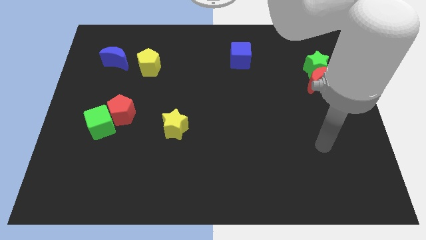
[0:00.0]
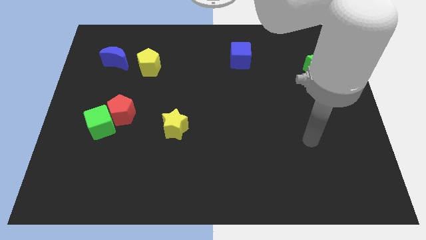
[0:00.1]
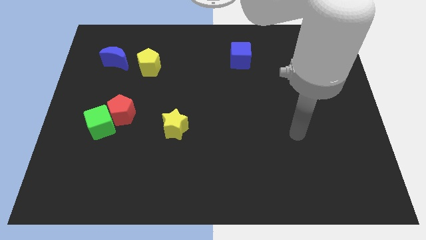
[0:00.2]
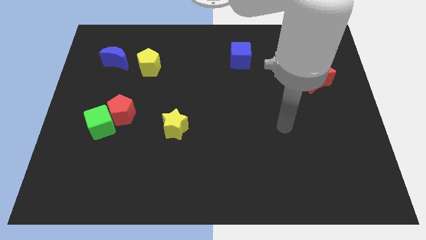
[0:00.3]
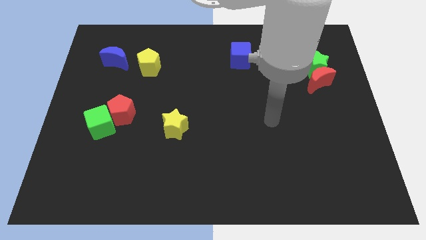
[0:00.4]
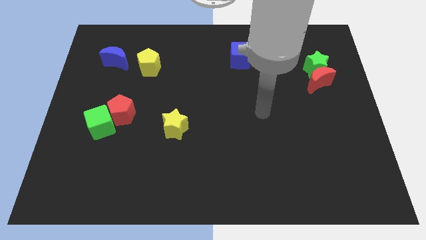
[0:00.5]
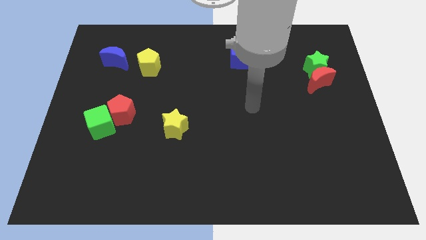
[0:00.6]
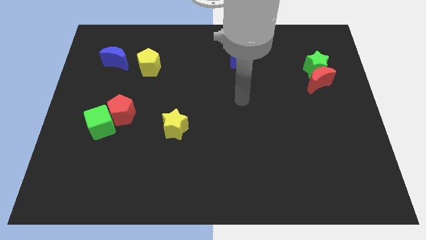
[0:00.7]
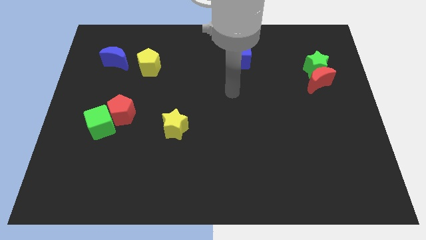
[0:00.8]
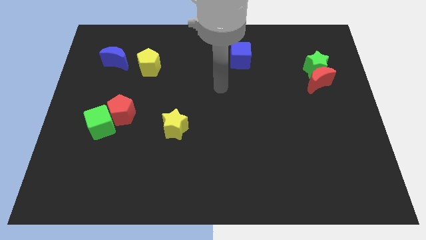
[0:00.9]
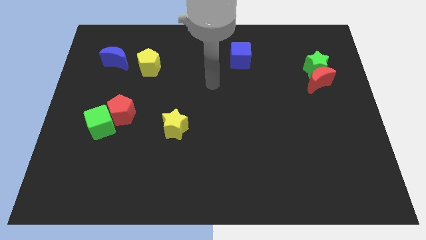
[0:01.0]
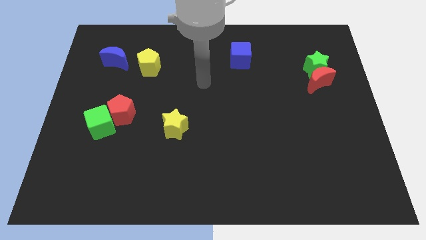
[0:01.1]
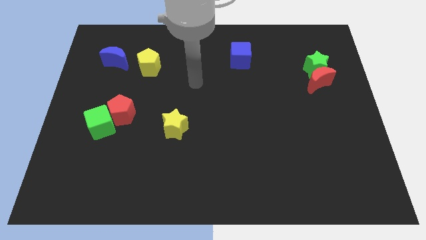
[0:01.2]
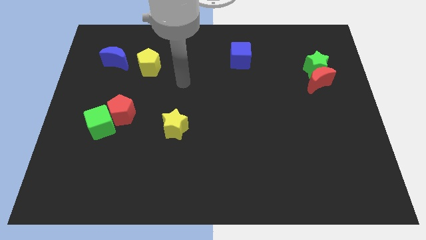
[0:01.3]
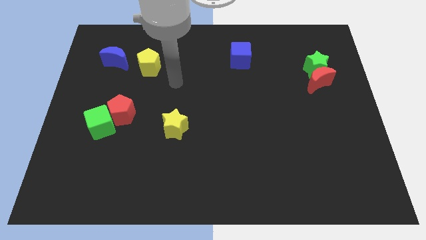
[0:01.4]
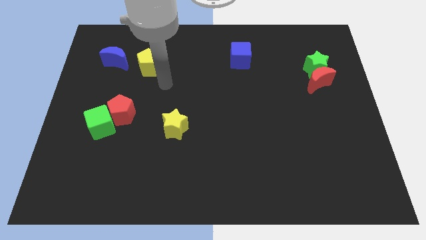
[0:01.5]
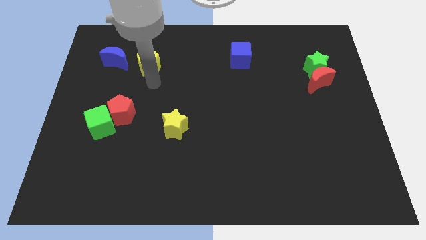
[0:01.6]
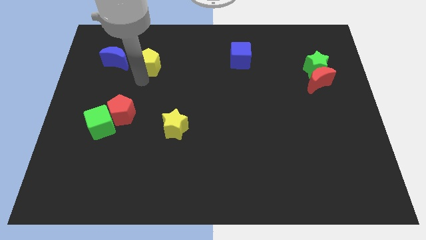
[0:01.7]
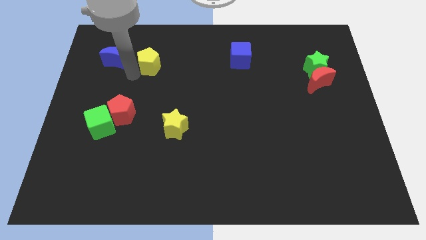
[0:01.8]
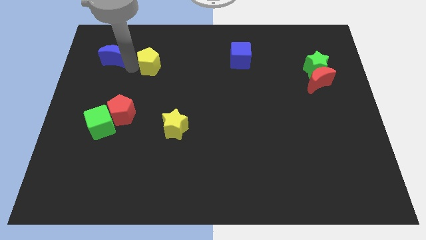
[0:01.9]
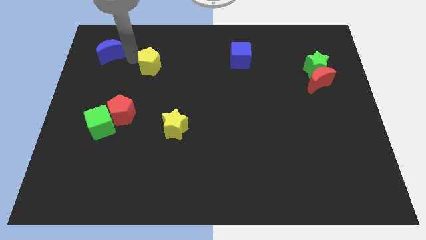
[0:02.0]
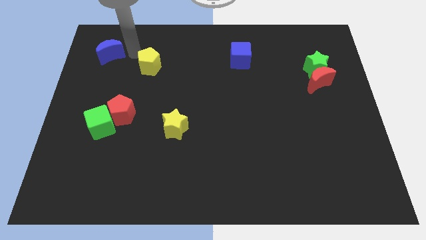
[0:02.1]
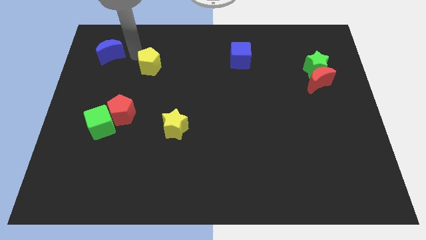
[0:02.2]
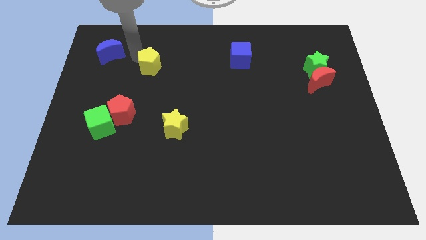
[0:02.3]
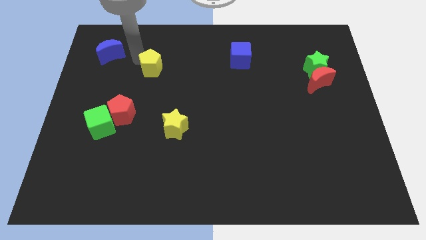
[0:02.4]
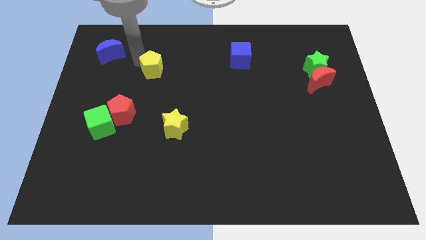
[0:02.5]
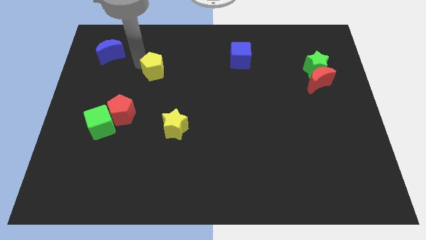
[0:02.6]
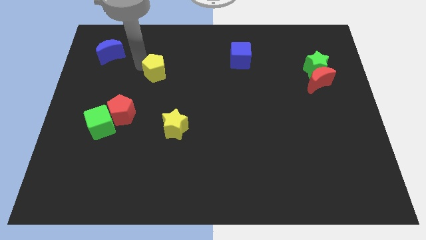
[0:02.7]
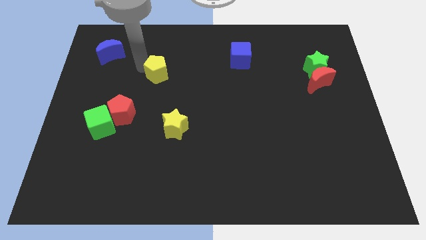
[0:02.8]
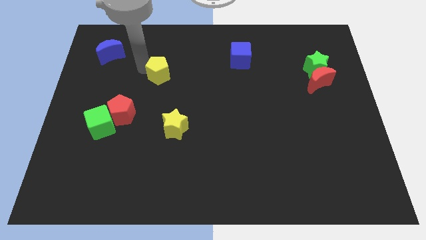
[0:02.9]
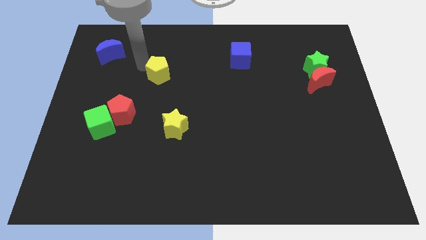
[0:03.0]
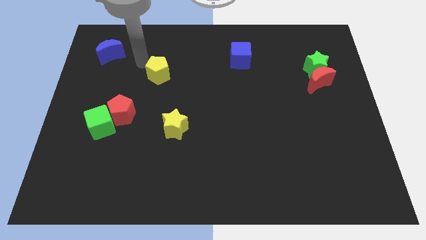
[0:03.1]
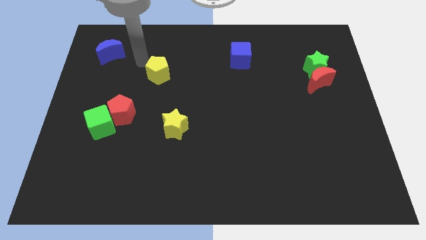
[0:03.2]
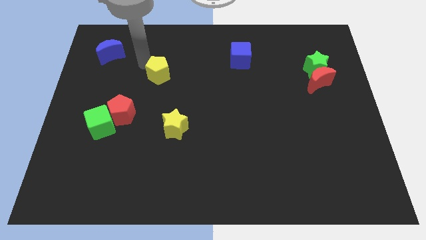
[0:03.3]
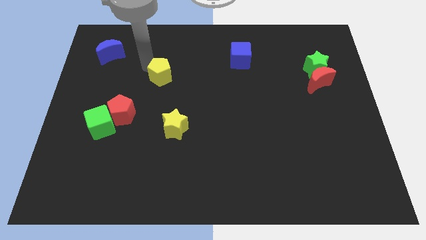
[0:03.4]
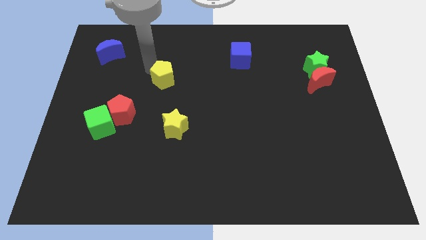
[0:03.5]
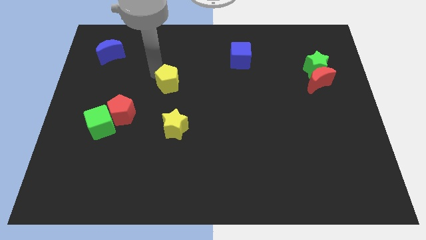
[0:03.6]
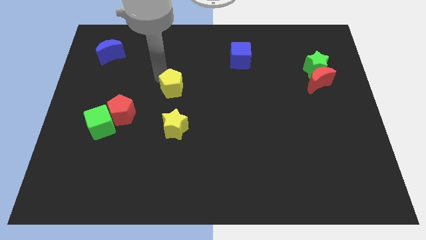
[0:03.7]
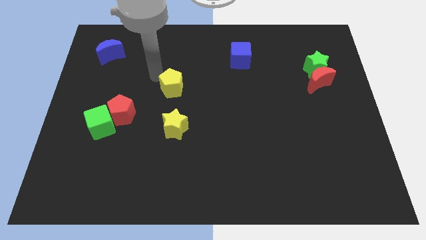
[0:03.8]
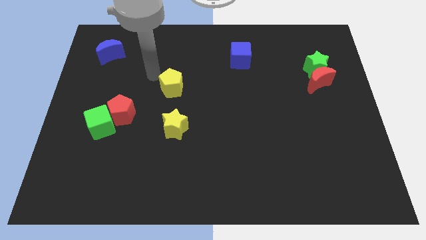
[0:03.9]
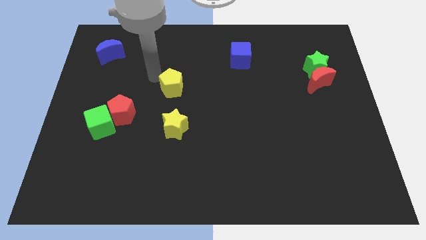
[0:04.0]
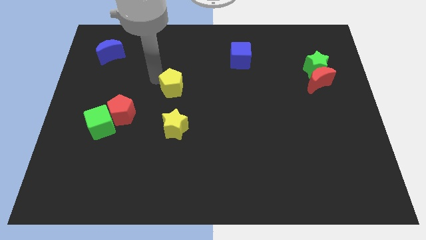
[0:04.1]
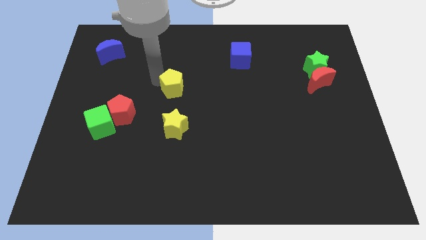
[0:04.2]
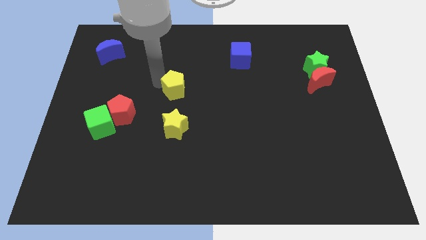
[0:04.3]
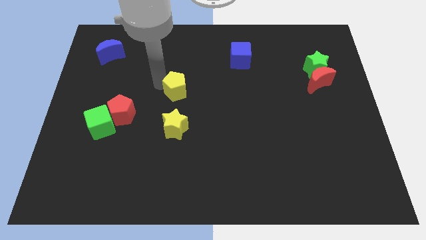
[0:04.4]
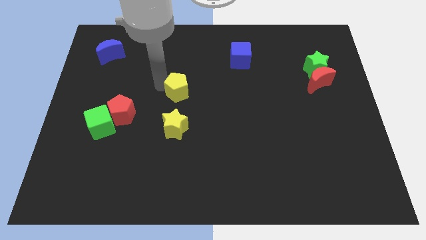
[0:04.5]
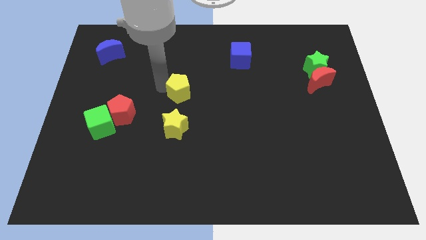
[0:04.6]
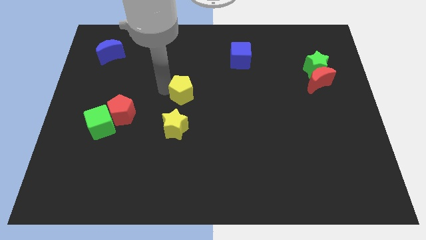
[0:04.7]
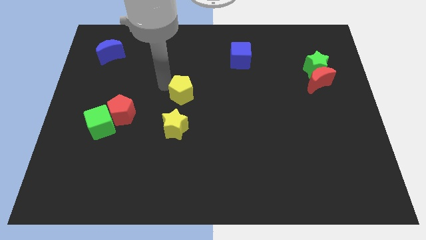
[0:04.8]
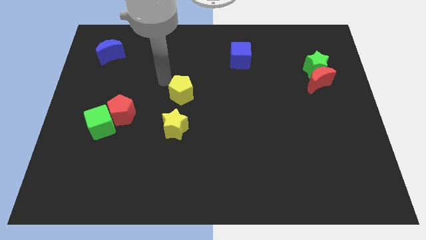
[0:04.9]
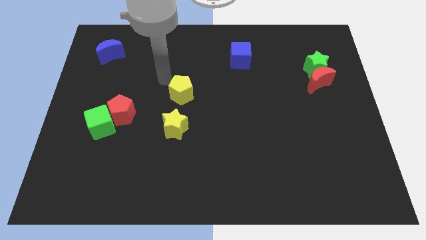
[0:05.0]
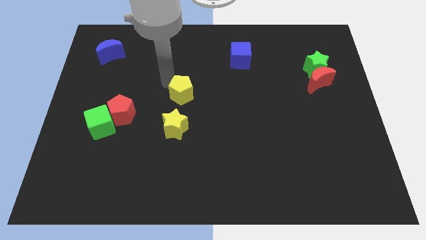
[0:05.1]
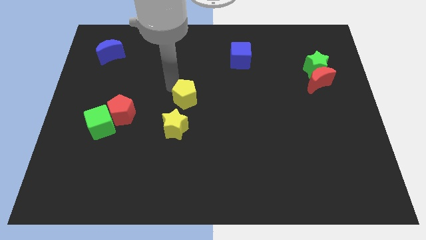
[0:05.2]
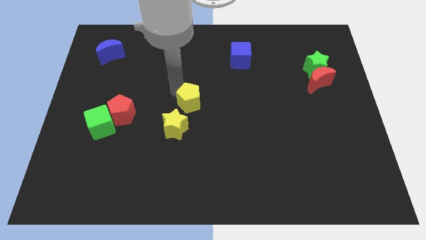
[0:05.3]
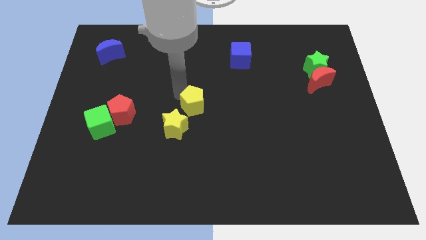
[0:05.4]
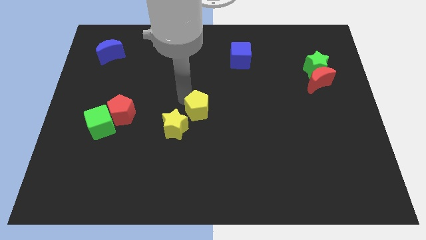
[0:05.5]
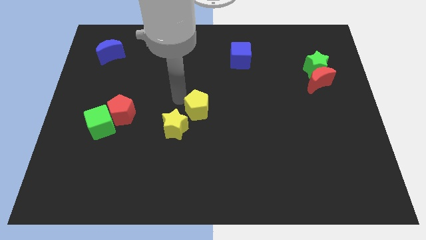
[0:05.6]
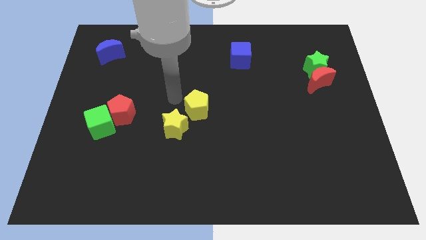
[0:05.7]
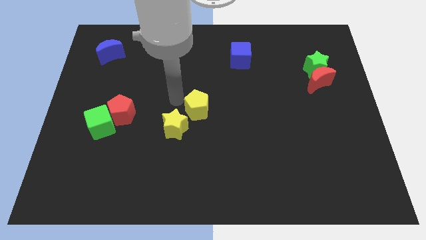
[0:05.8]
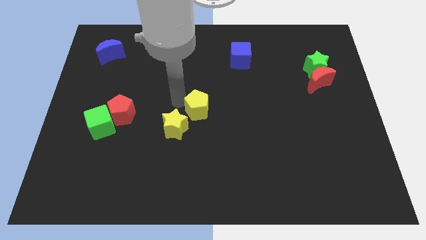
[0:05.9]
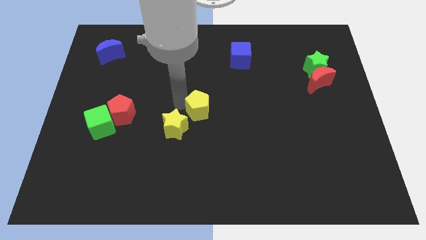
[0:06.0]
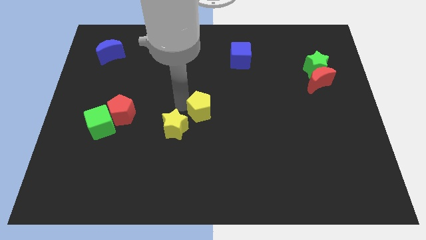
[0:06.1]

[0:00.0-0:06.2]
slide the yellow pentagon downwards and right diagonally

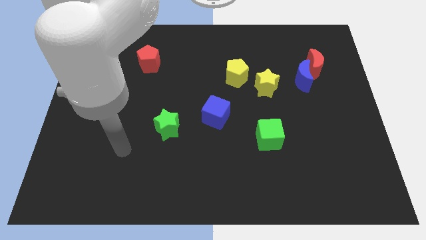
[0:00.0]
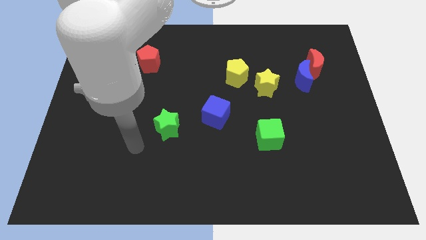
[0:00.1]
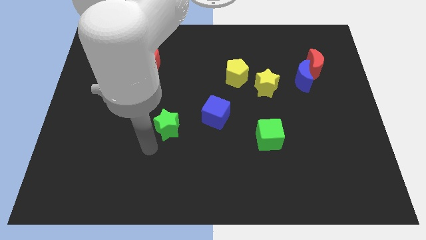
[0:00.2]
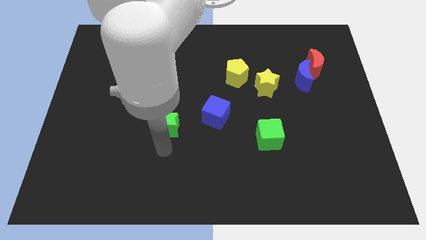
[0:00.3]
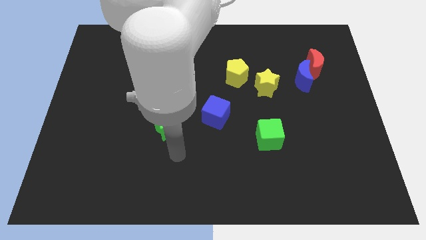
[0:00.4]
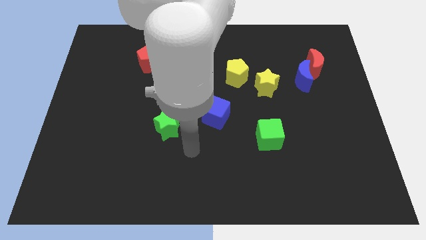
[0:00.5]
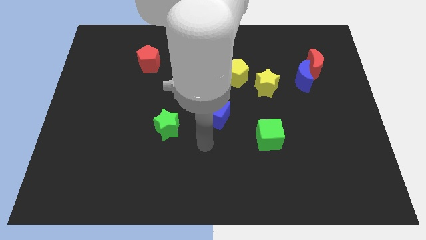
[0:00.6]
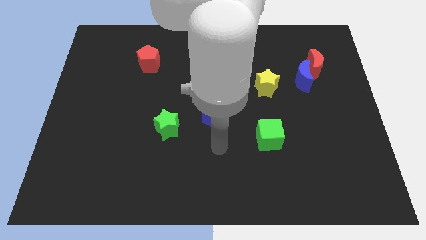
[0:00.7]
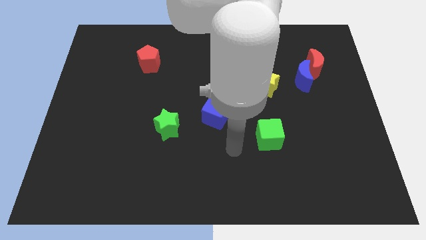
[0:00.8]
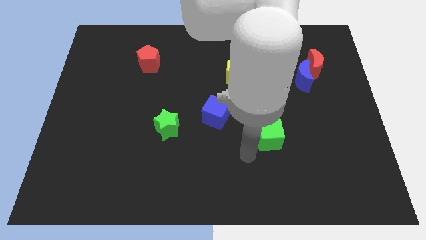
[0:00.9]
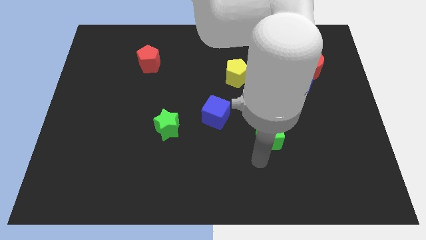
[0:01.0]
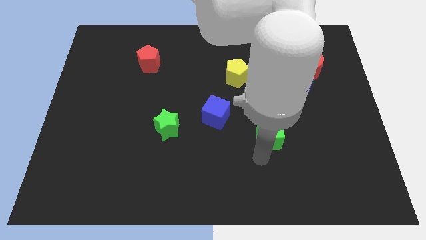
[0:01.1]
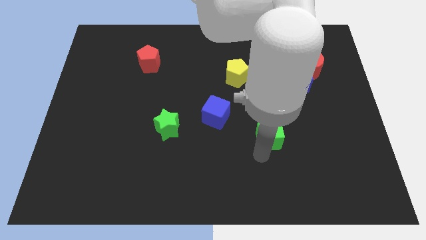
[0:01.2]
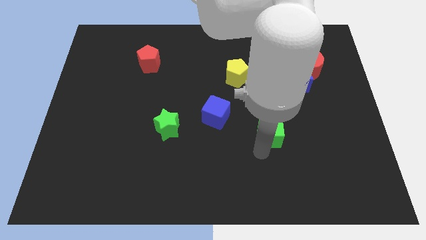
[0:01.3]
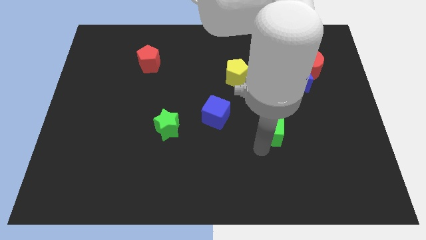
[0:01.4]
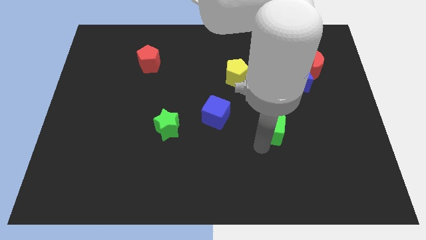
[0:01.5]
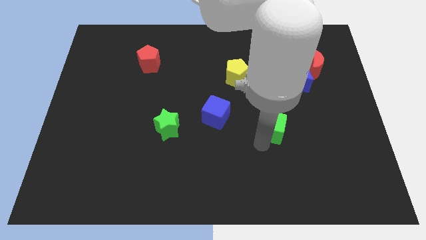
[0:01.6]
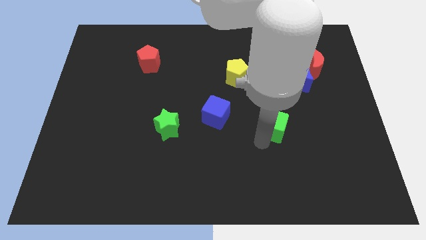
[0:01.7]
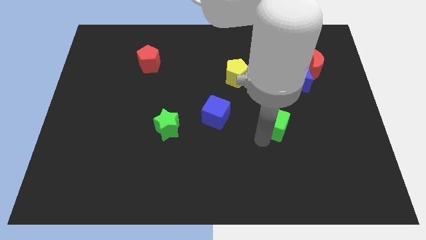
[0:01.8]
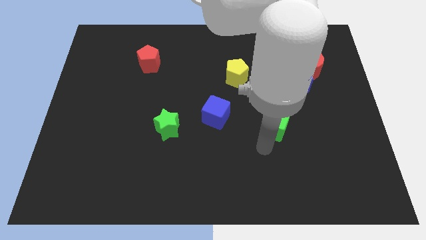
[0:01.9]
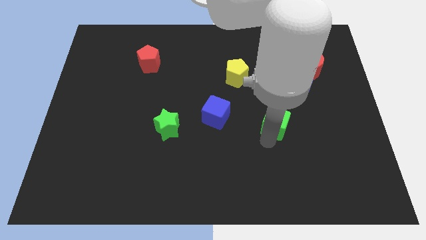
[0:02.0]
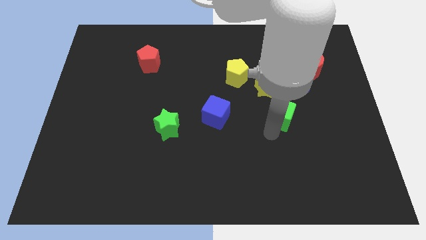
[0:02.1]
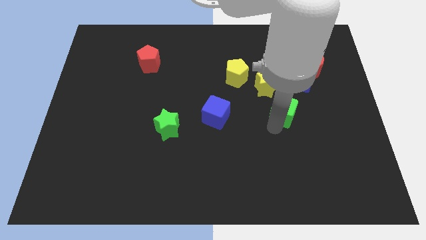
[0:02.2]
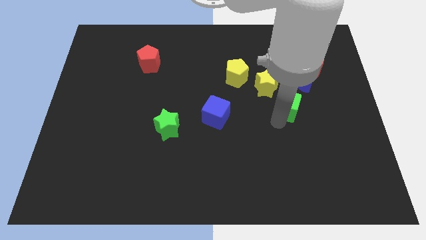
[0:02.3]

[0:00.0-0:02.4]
slide the green cube a bit up
